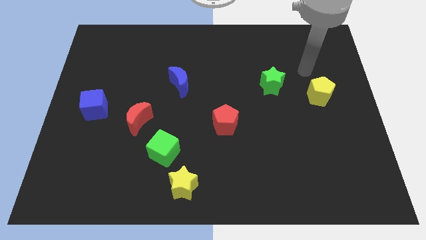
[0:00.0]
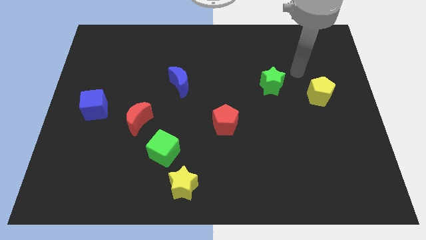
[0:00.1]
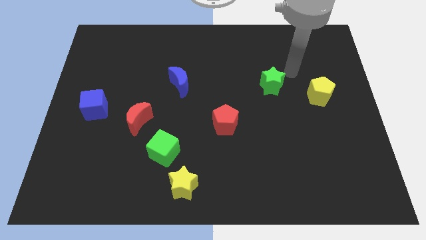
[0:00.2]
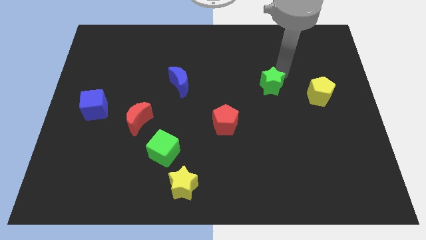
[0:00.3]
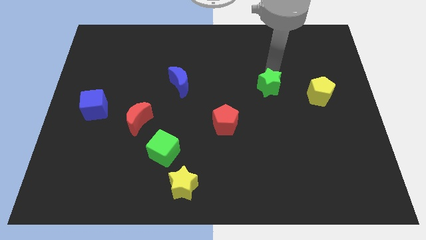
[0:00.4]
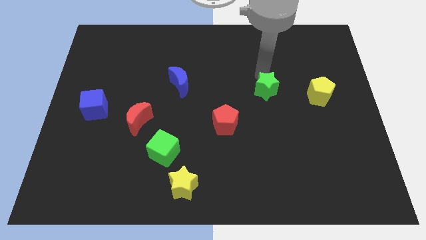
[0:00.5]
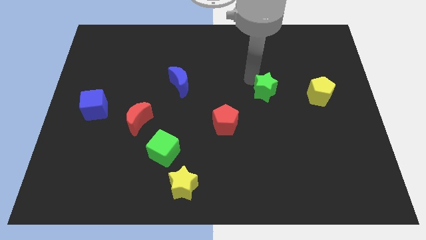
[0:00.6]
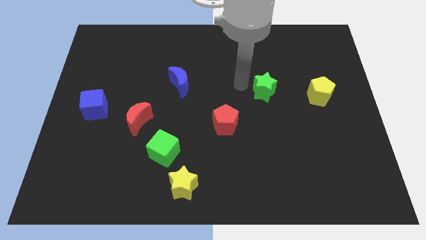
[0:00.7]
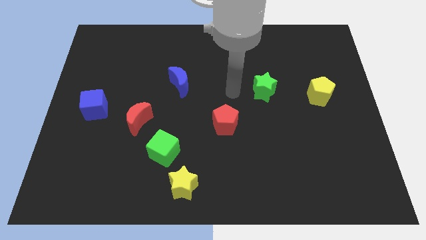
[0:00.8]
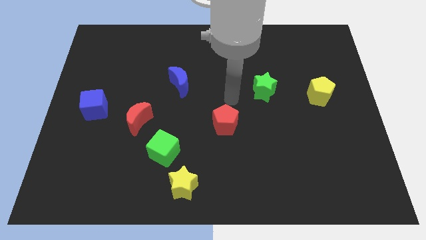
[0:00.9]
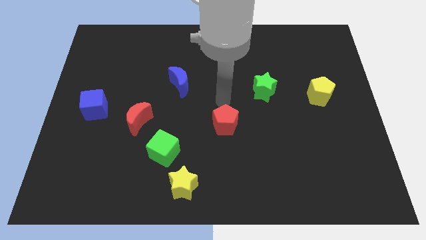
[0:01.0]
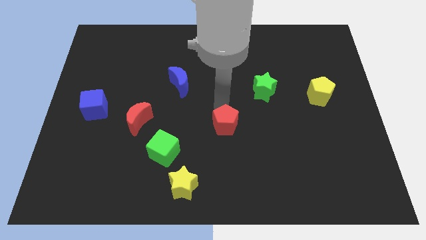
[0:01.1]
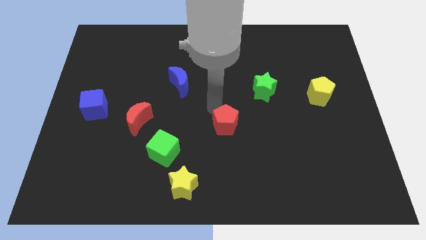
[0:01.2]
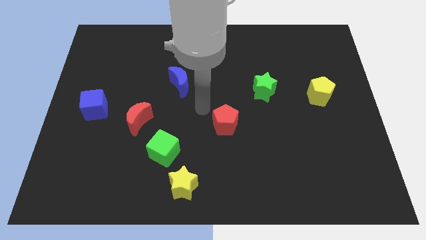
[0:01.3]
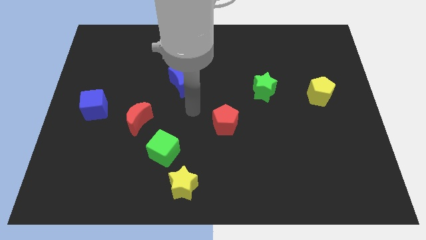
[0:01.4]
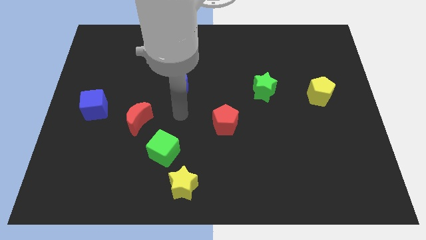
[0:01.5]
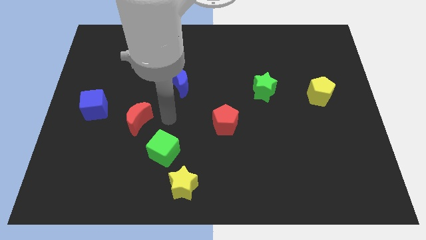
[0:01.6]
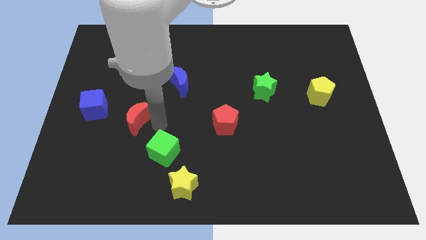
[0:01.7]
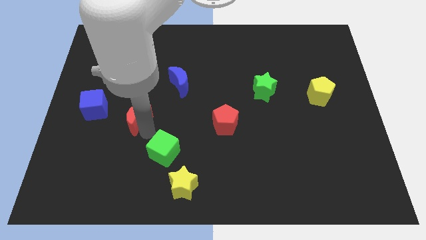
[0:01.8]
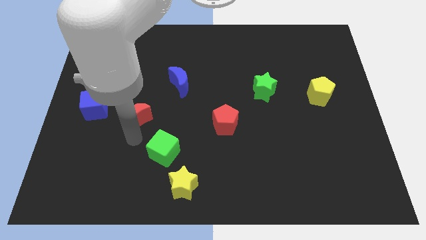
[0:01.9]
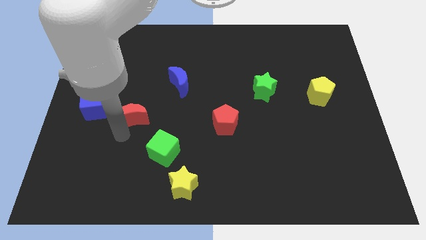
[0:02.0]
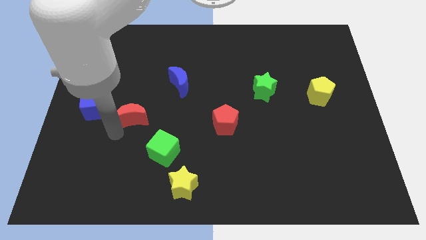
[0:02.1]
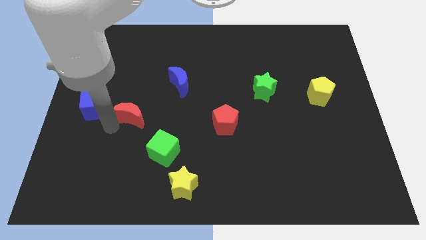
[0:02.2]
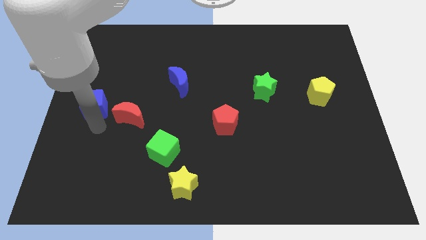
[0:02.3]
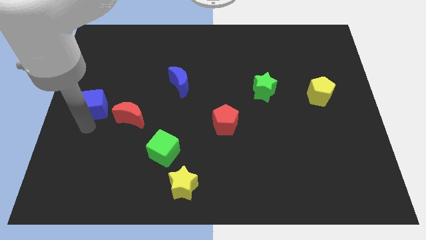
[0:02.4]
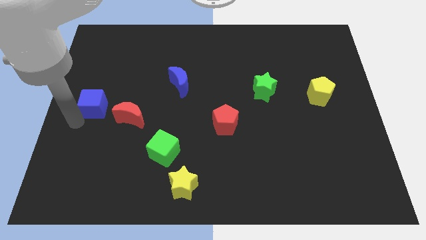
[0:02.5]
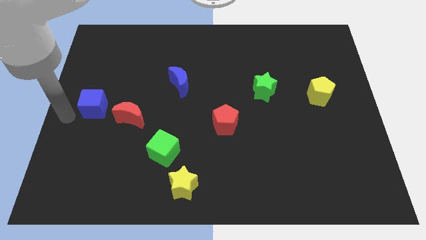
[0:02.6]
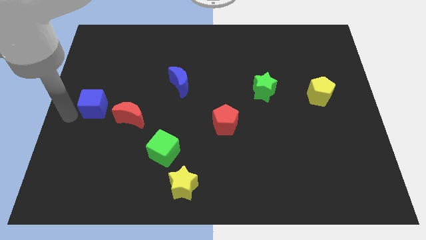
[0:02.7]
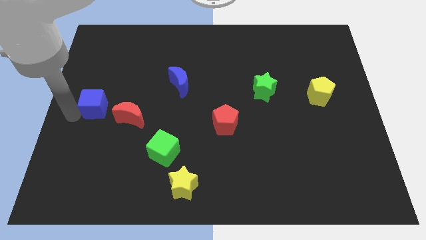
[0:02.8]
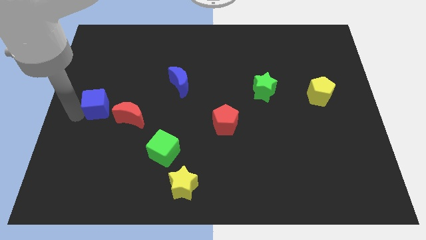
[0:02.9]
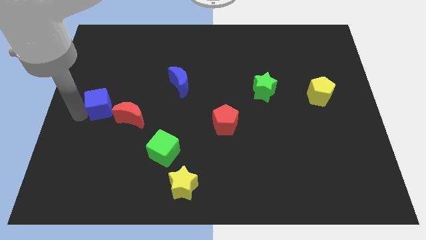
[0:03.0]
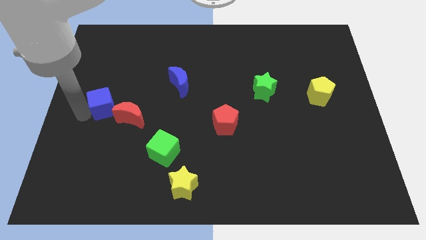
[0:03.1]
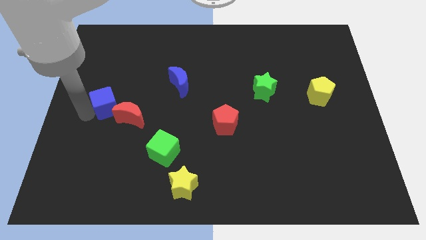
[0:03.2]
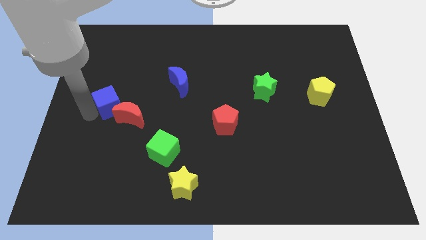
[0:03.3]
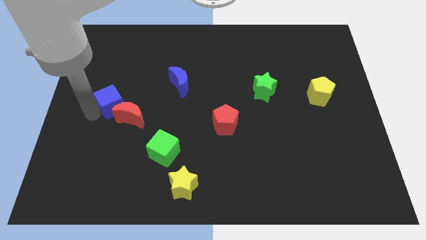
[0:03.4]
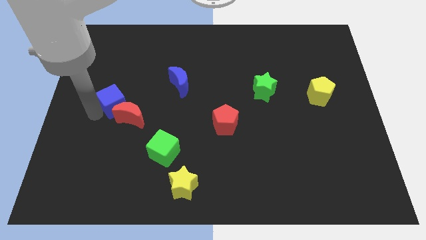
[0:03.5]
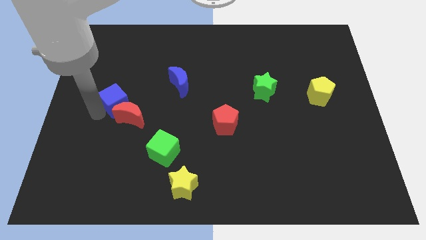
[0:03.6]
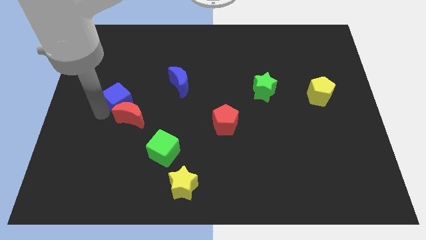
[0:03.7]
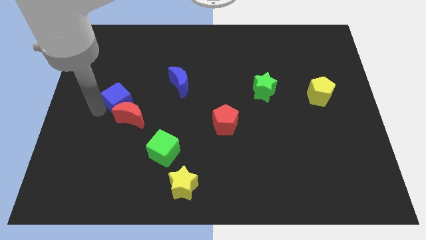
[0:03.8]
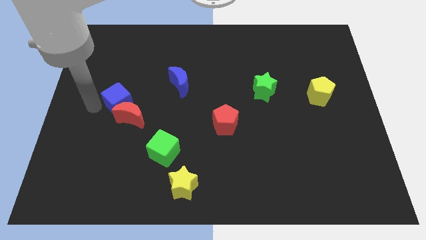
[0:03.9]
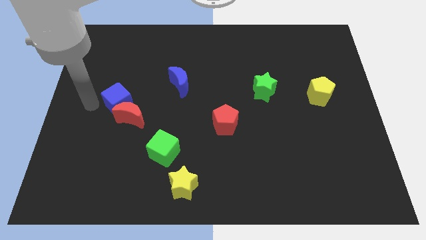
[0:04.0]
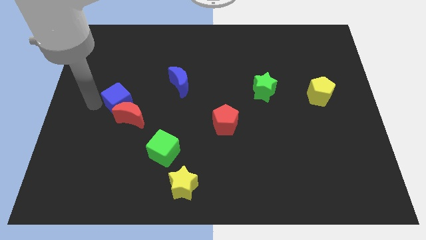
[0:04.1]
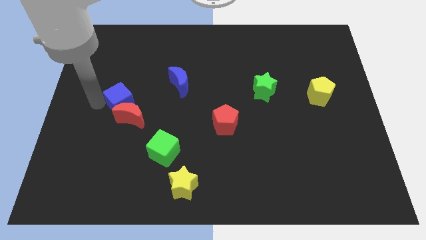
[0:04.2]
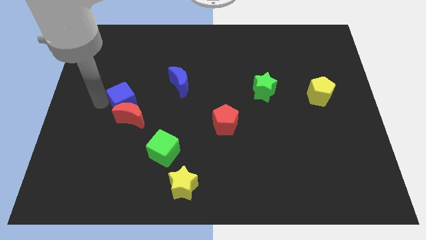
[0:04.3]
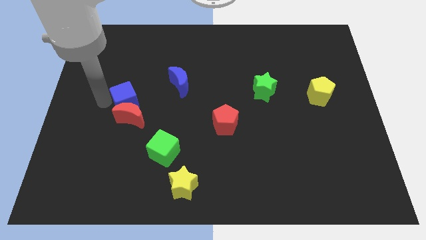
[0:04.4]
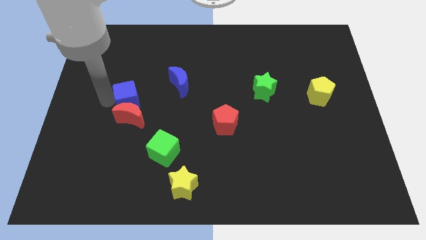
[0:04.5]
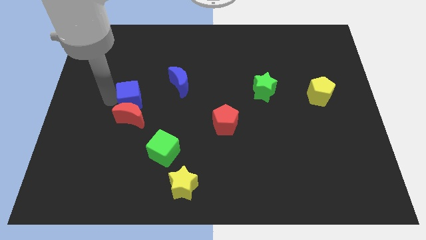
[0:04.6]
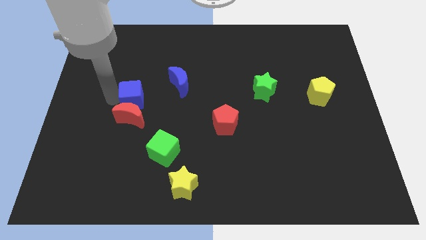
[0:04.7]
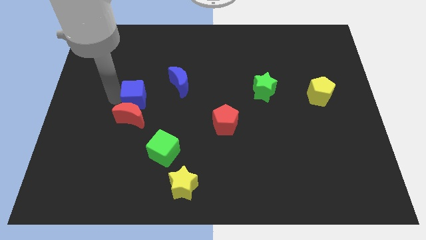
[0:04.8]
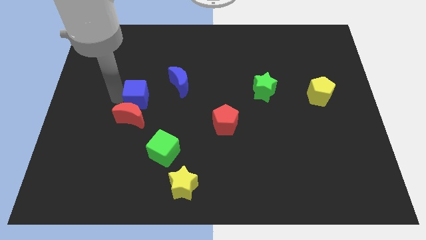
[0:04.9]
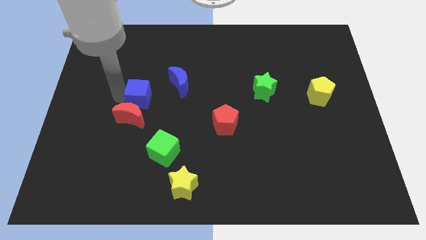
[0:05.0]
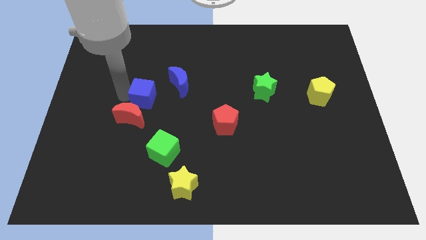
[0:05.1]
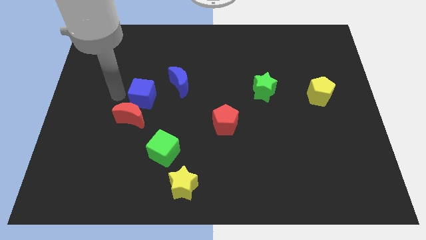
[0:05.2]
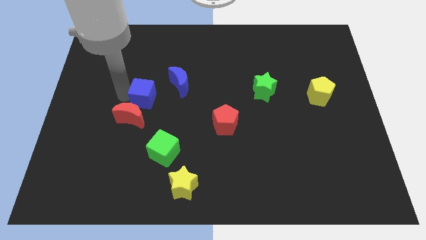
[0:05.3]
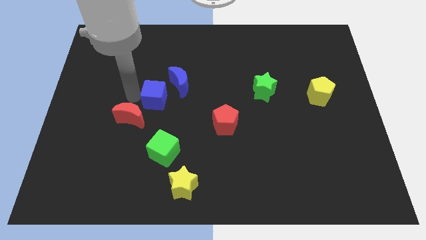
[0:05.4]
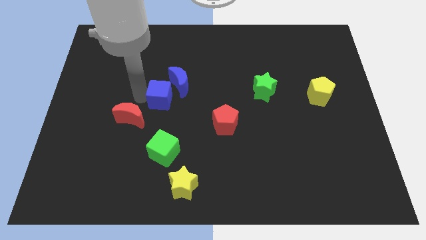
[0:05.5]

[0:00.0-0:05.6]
slide the blue cube to the center

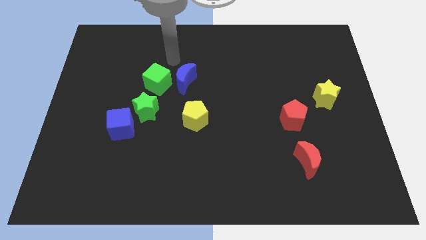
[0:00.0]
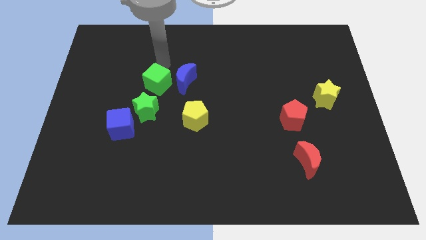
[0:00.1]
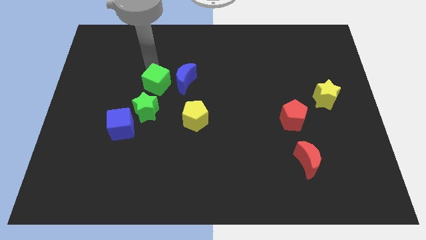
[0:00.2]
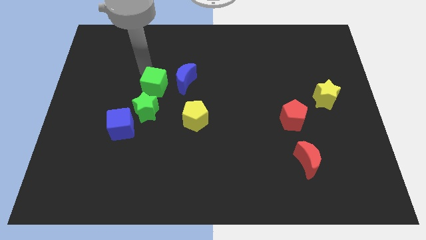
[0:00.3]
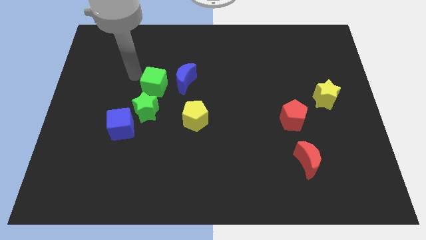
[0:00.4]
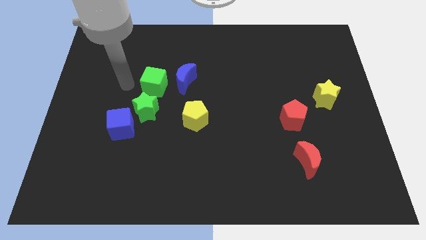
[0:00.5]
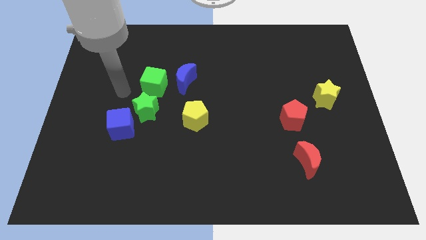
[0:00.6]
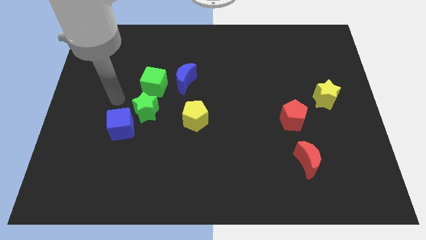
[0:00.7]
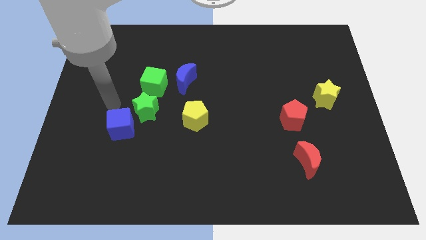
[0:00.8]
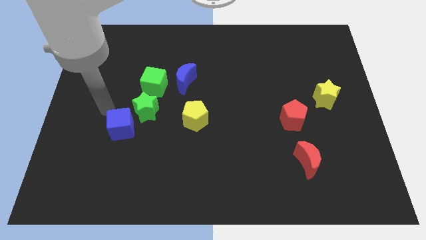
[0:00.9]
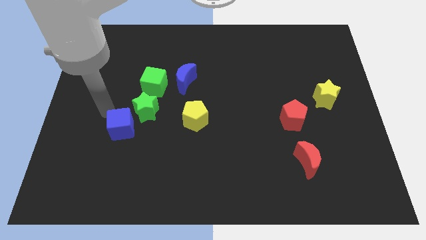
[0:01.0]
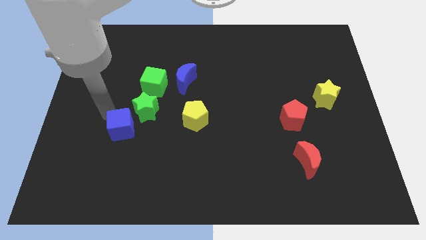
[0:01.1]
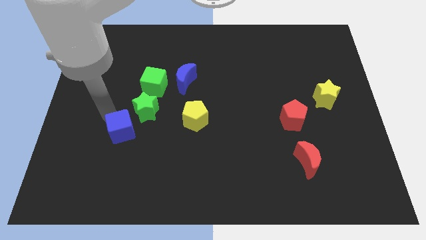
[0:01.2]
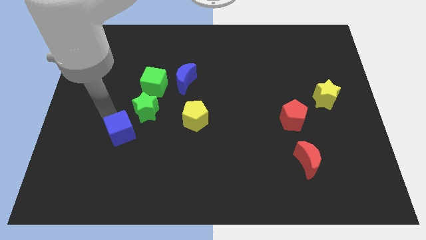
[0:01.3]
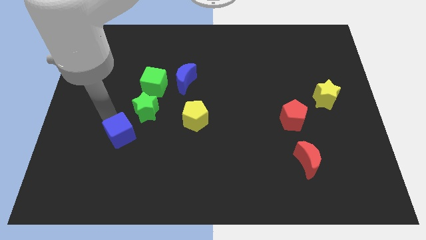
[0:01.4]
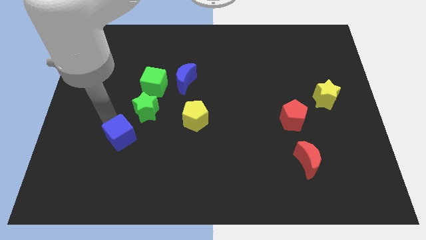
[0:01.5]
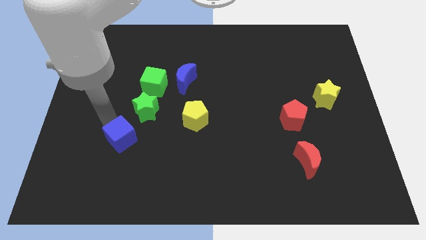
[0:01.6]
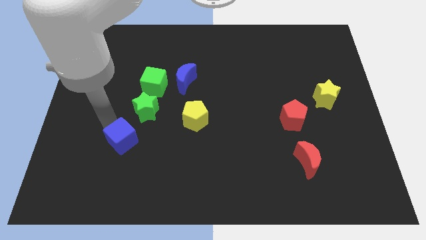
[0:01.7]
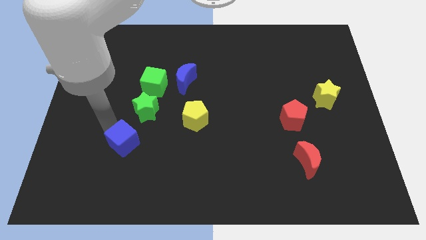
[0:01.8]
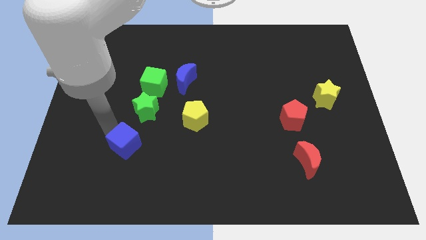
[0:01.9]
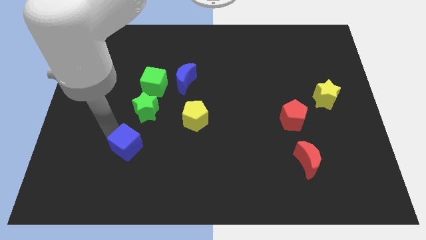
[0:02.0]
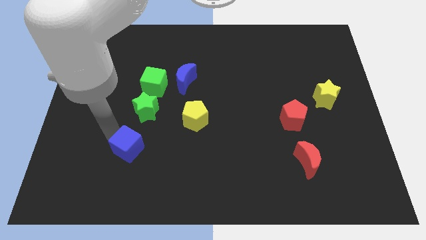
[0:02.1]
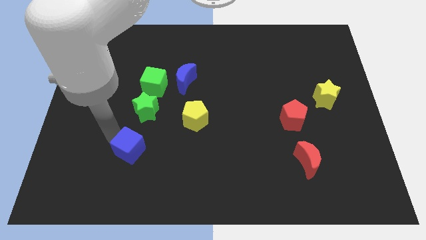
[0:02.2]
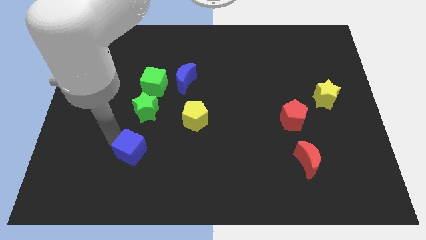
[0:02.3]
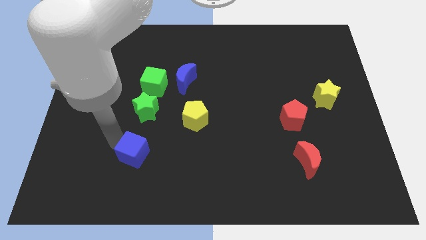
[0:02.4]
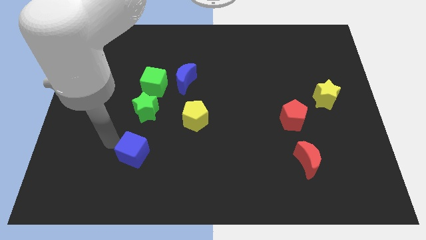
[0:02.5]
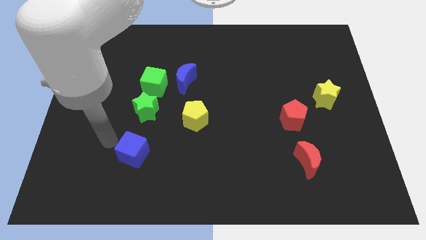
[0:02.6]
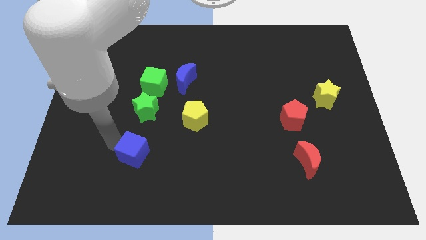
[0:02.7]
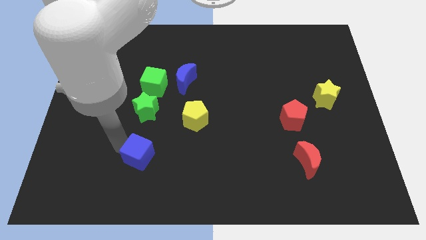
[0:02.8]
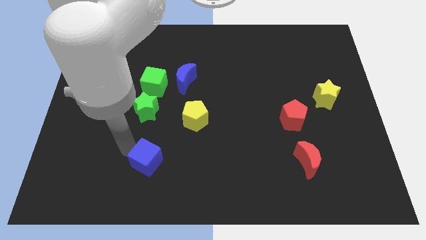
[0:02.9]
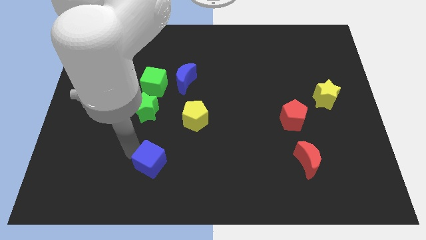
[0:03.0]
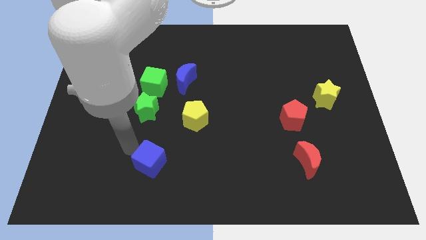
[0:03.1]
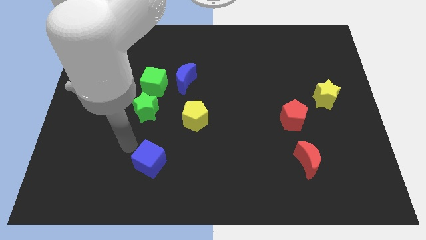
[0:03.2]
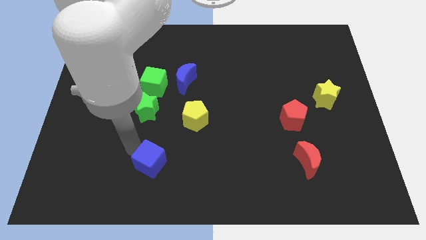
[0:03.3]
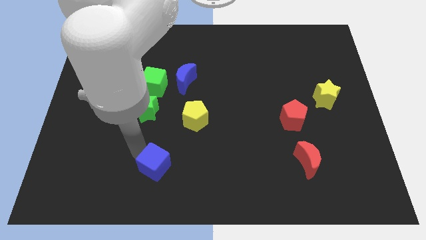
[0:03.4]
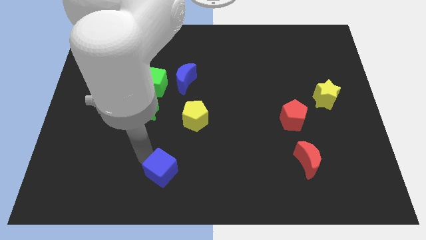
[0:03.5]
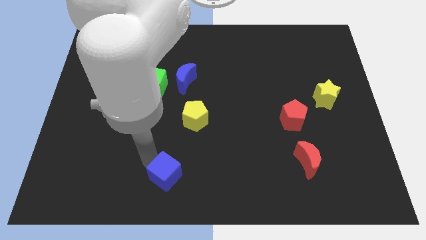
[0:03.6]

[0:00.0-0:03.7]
slide the blue cube to the bottom side
